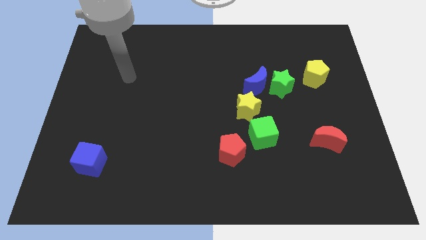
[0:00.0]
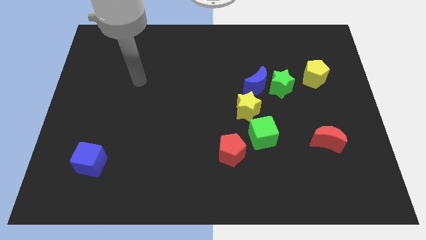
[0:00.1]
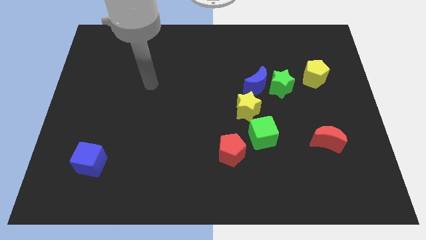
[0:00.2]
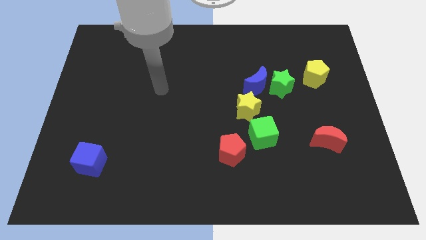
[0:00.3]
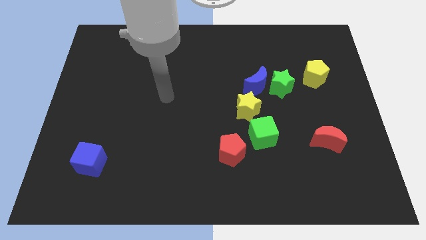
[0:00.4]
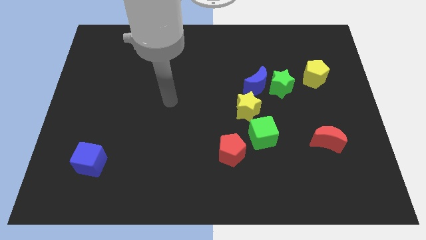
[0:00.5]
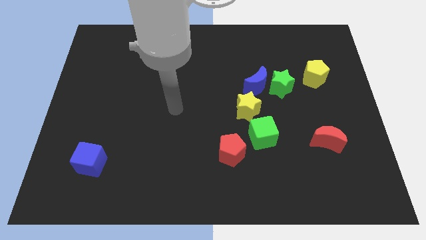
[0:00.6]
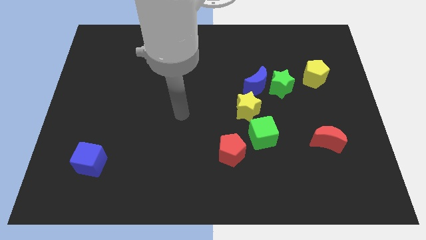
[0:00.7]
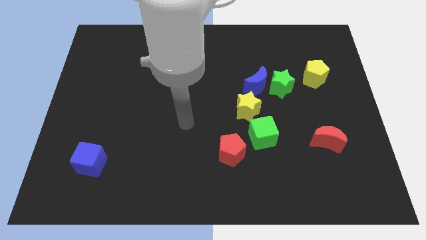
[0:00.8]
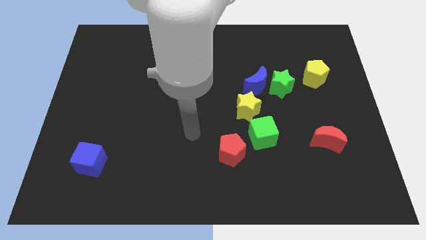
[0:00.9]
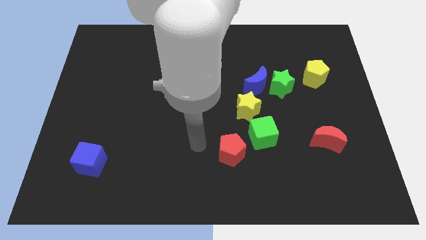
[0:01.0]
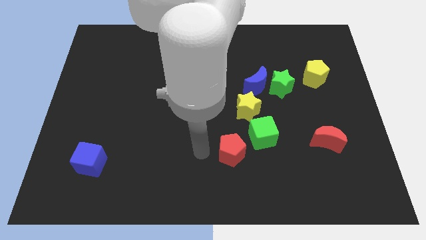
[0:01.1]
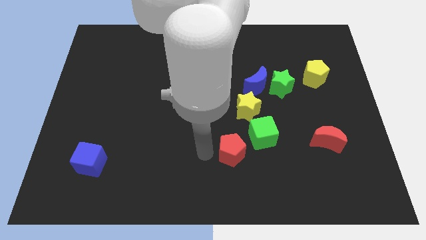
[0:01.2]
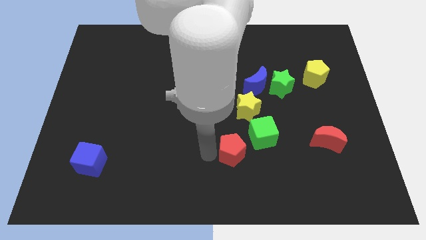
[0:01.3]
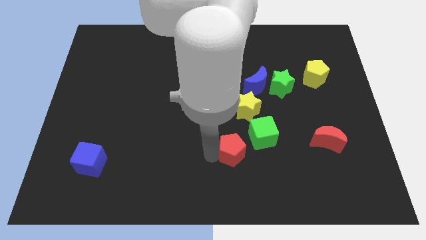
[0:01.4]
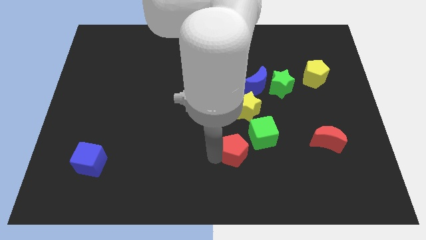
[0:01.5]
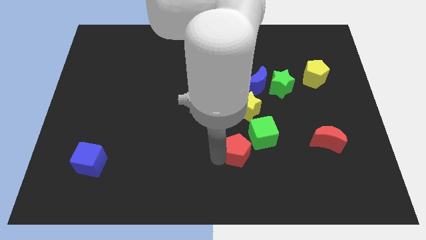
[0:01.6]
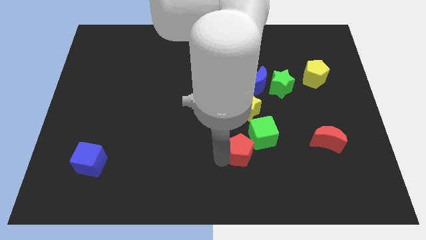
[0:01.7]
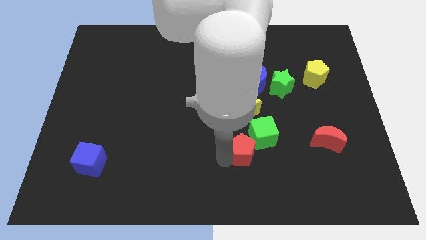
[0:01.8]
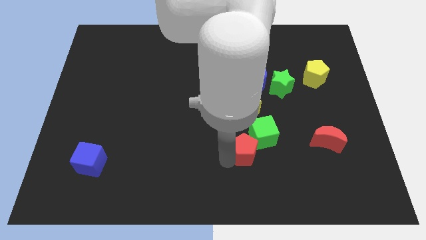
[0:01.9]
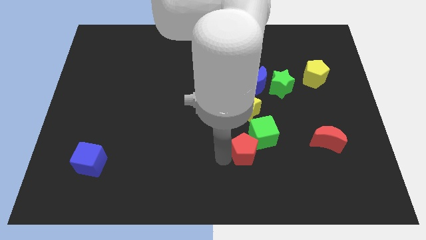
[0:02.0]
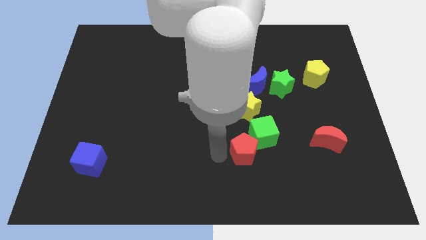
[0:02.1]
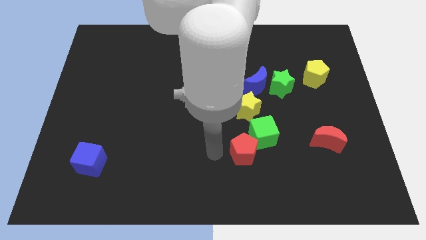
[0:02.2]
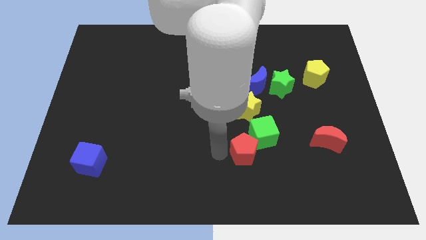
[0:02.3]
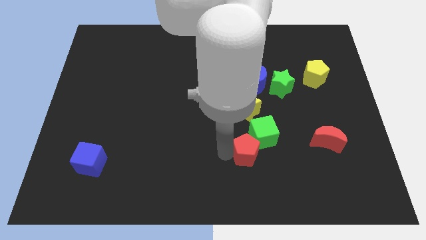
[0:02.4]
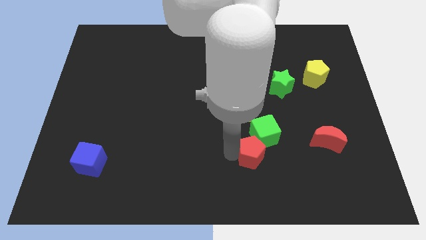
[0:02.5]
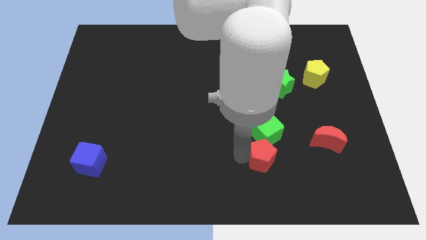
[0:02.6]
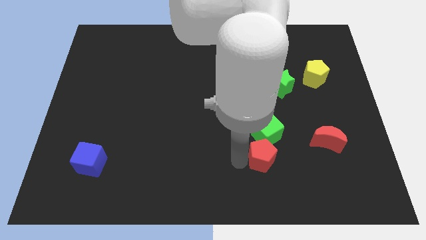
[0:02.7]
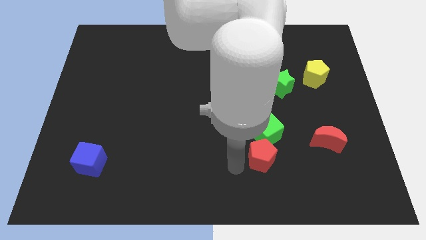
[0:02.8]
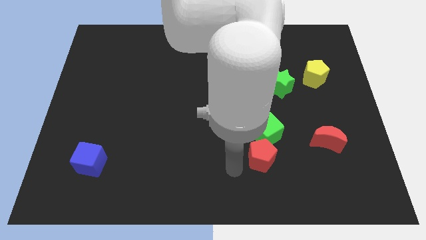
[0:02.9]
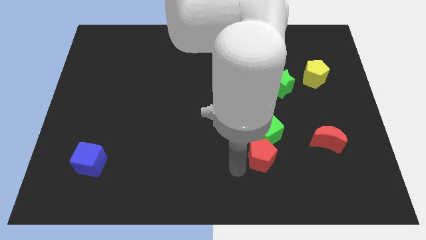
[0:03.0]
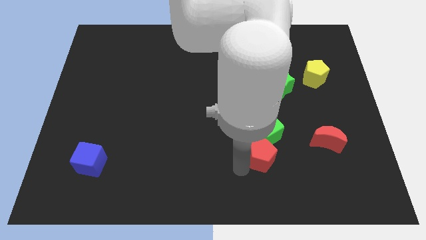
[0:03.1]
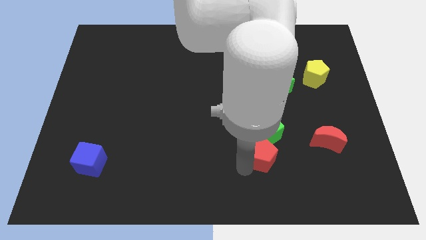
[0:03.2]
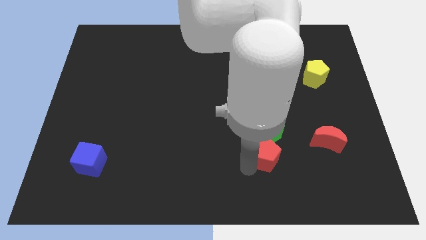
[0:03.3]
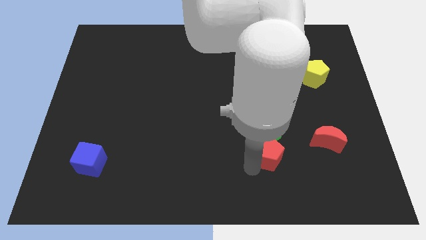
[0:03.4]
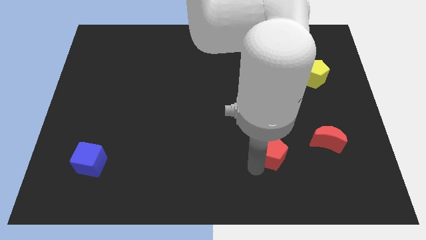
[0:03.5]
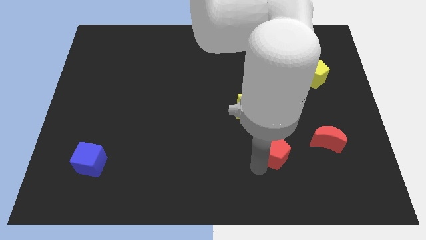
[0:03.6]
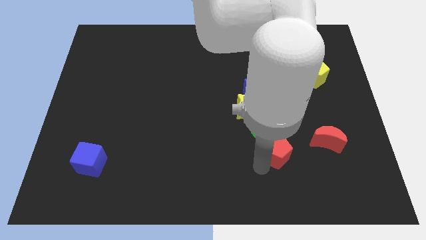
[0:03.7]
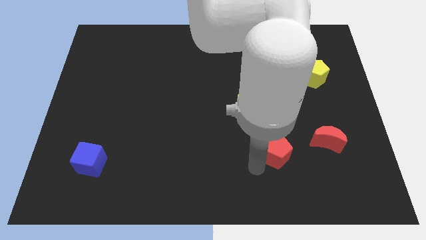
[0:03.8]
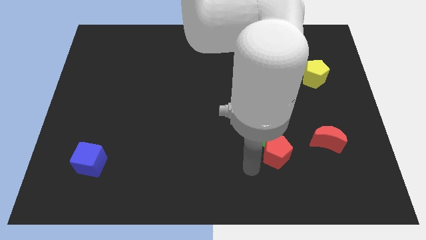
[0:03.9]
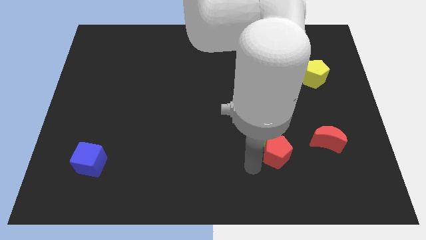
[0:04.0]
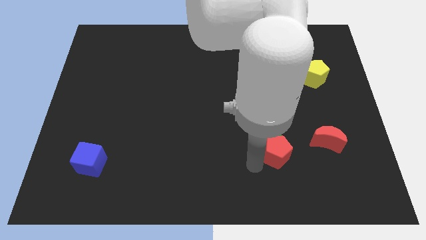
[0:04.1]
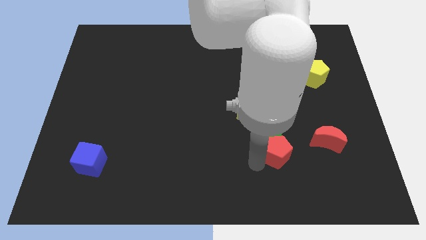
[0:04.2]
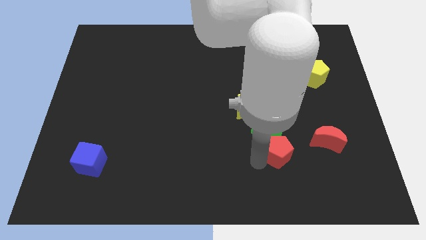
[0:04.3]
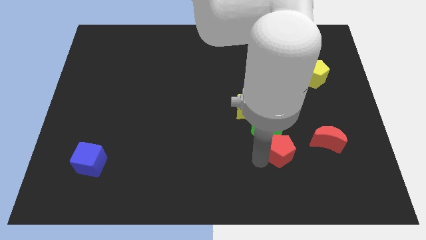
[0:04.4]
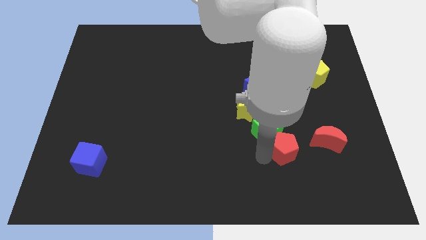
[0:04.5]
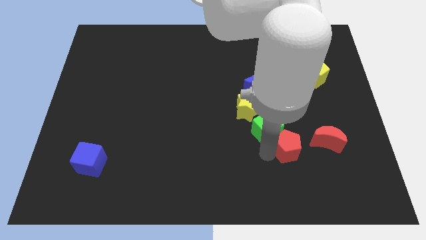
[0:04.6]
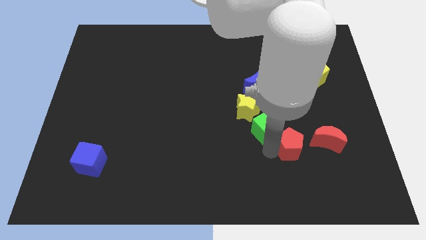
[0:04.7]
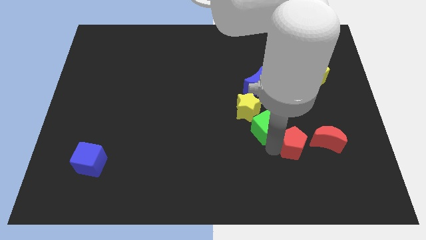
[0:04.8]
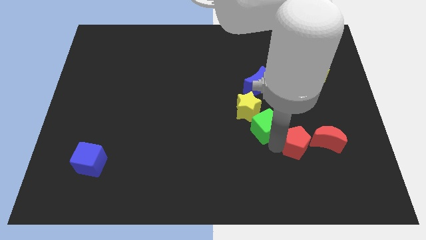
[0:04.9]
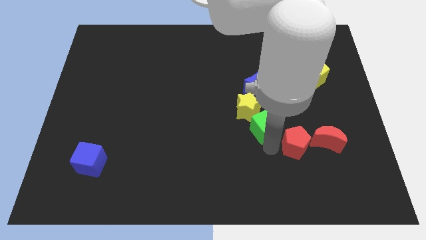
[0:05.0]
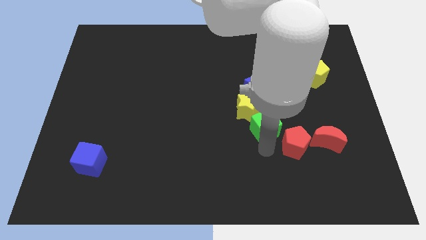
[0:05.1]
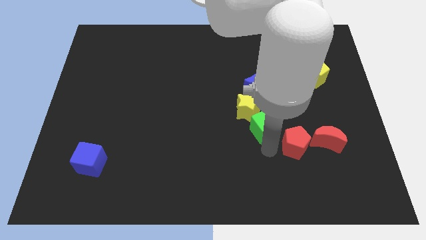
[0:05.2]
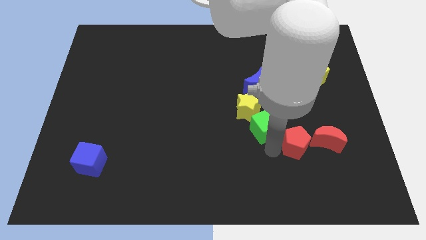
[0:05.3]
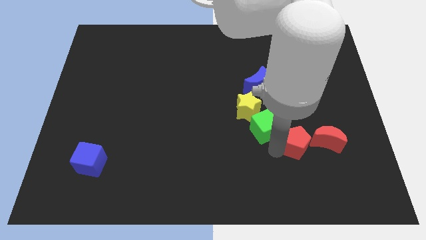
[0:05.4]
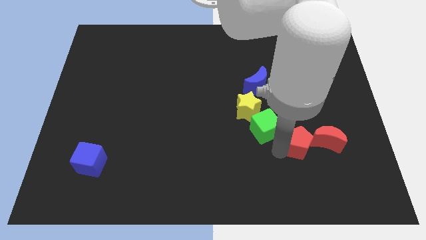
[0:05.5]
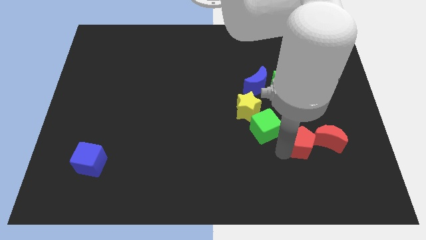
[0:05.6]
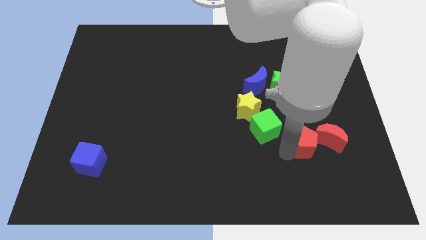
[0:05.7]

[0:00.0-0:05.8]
put the red pentagon to the red moon

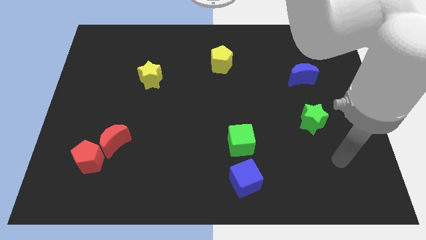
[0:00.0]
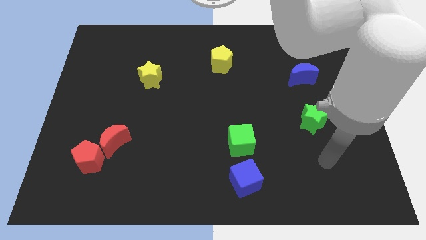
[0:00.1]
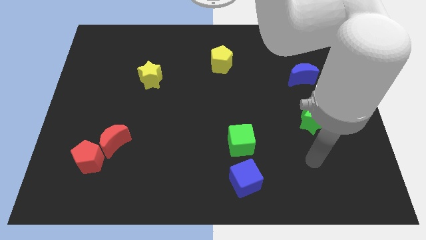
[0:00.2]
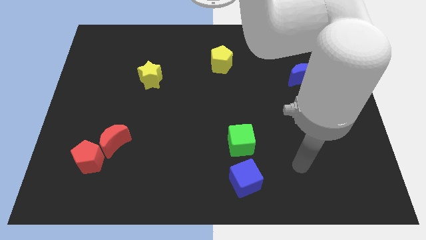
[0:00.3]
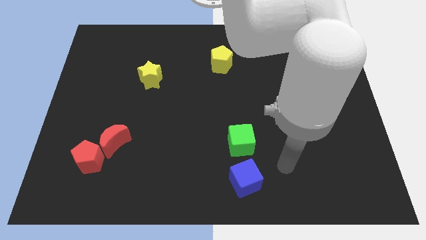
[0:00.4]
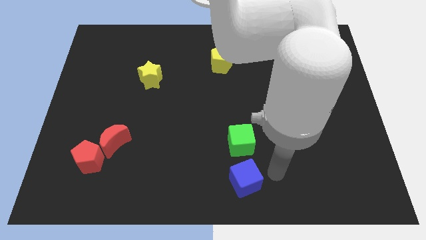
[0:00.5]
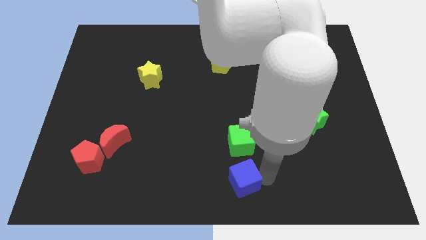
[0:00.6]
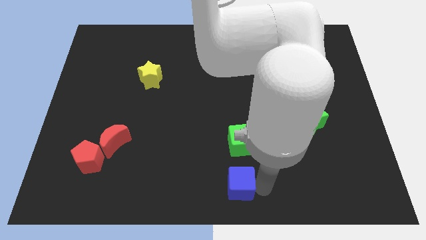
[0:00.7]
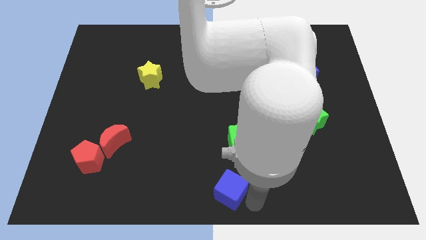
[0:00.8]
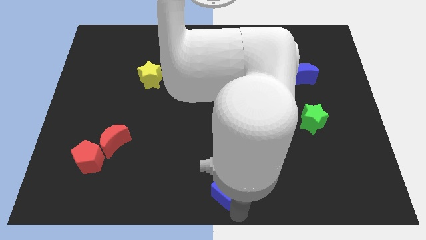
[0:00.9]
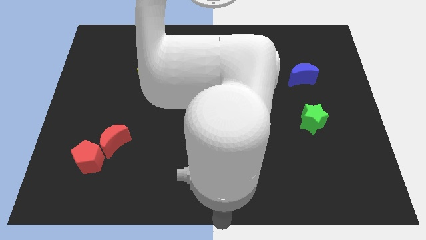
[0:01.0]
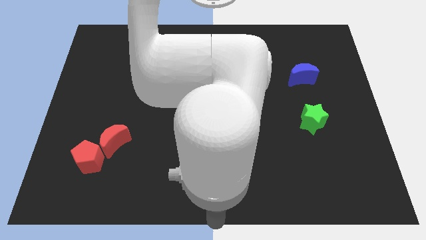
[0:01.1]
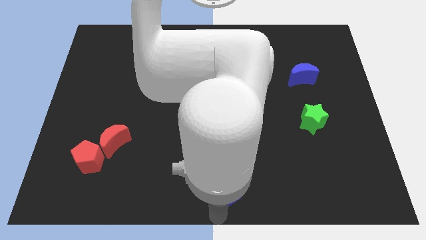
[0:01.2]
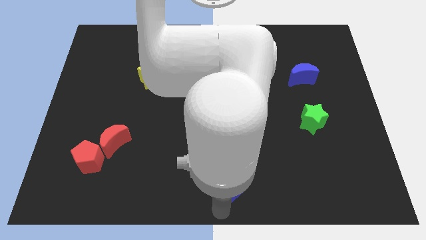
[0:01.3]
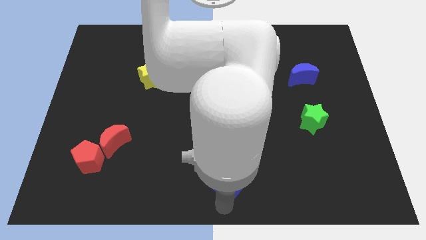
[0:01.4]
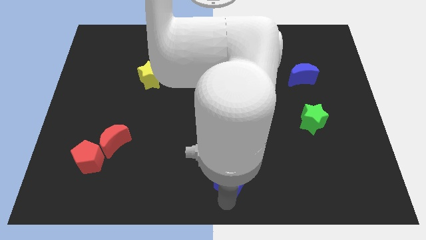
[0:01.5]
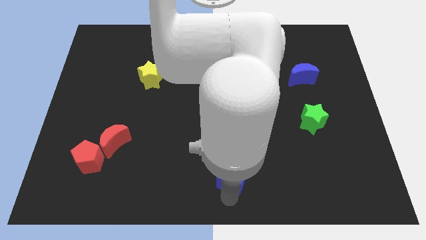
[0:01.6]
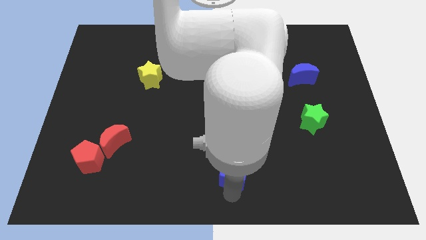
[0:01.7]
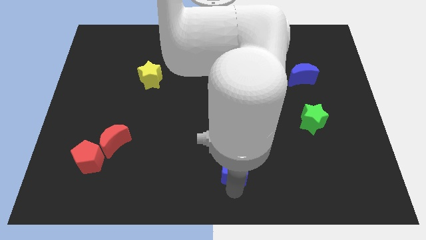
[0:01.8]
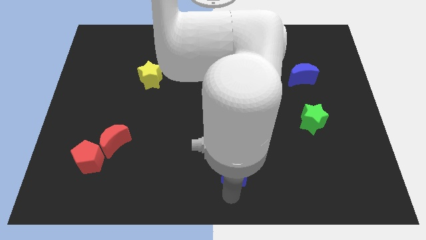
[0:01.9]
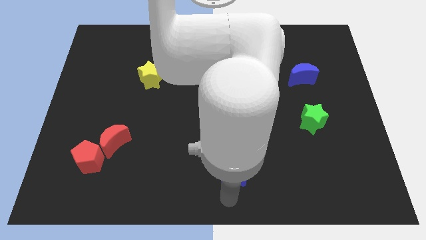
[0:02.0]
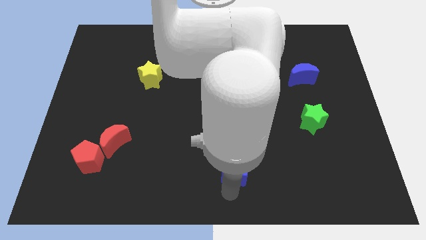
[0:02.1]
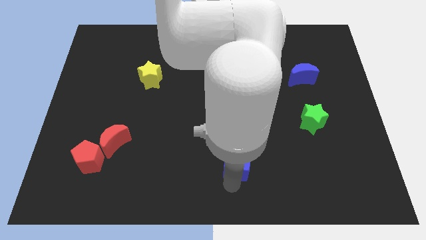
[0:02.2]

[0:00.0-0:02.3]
move the blue cube to the green cube
